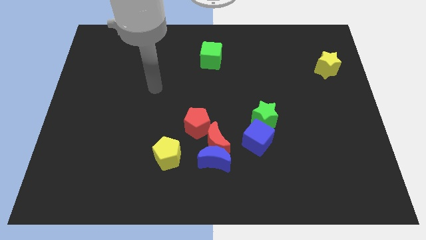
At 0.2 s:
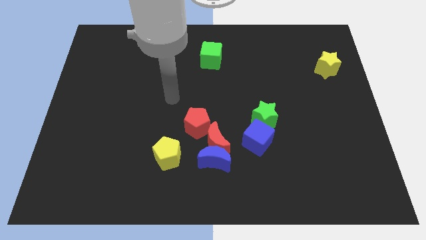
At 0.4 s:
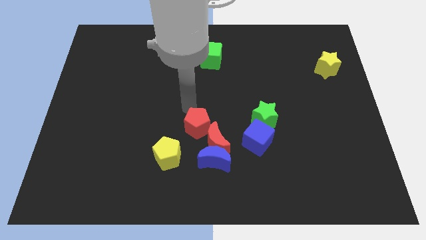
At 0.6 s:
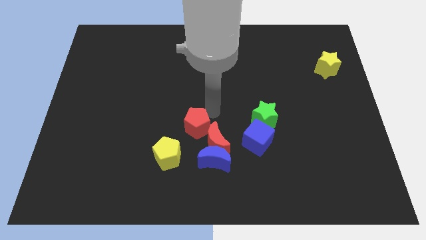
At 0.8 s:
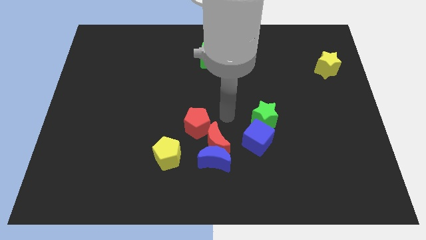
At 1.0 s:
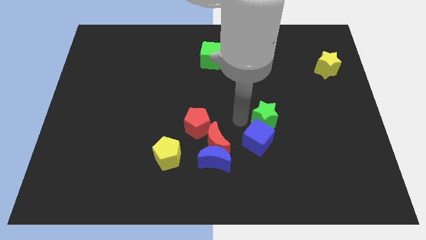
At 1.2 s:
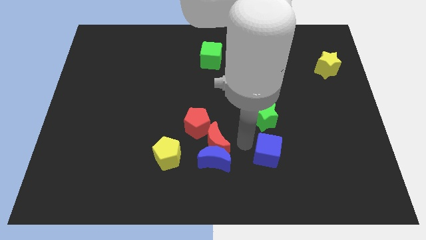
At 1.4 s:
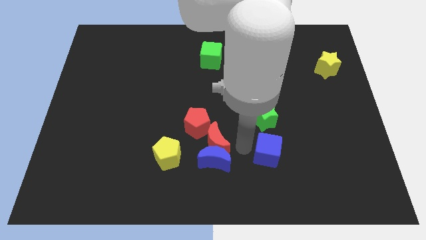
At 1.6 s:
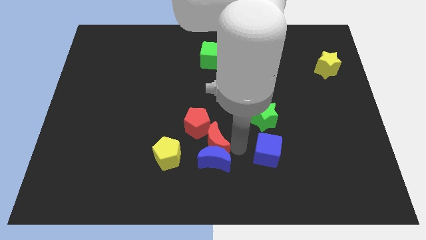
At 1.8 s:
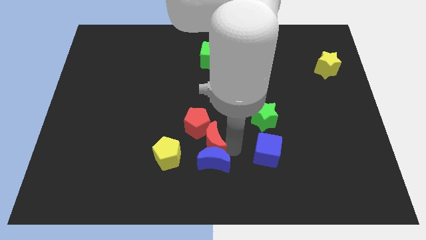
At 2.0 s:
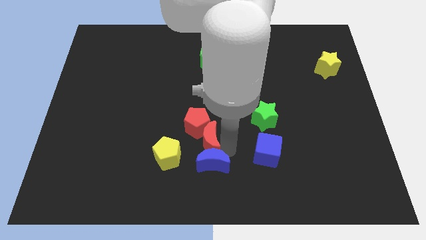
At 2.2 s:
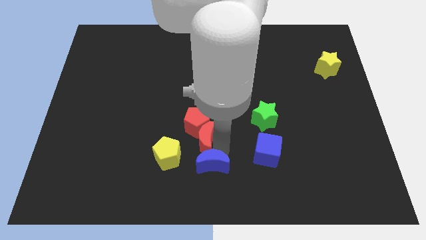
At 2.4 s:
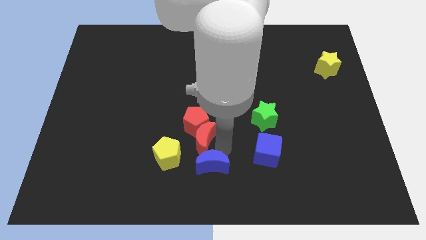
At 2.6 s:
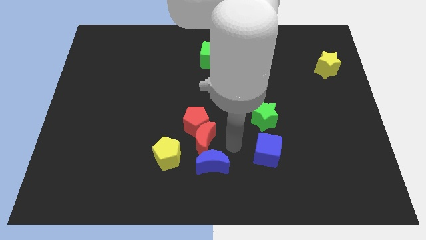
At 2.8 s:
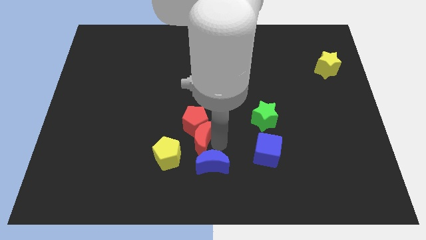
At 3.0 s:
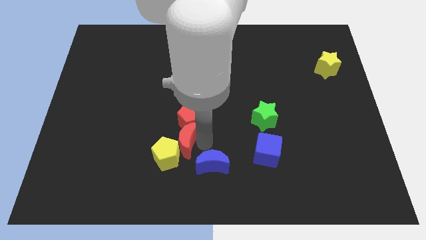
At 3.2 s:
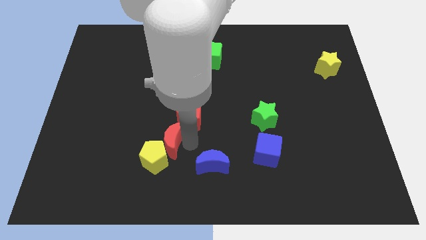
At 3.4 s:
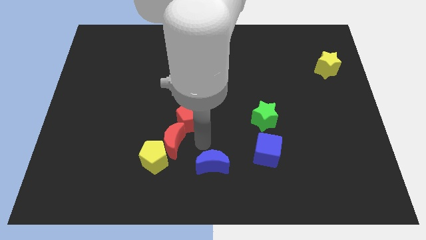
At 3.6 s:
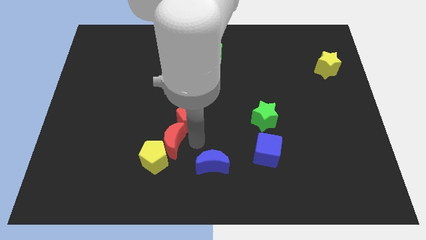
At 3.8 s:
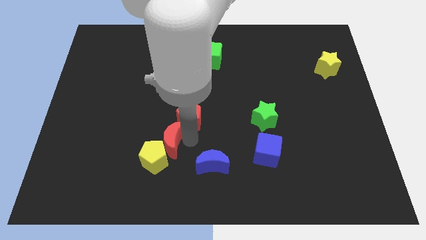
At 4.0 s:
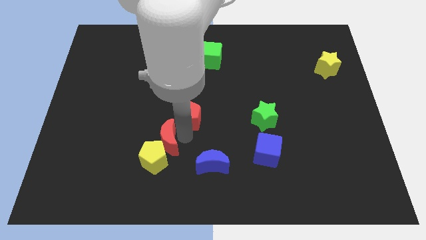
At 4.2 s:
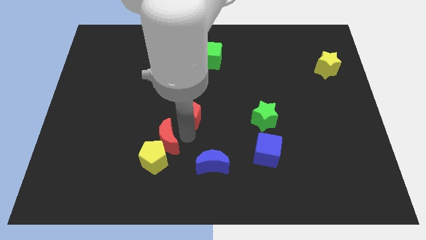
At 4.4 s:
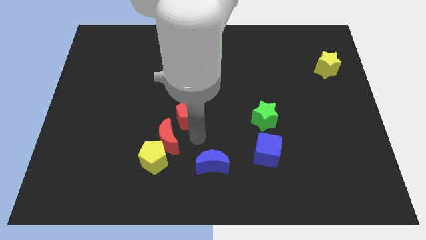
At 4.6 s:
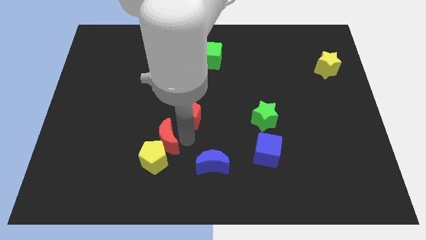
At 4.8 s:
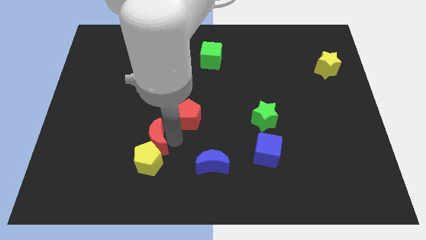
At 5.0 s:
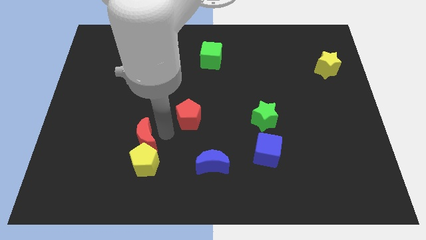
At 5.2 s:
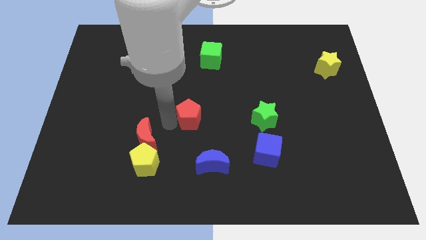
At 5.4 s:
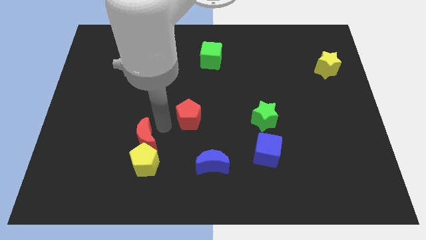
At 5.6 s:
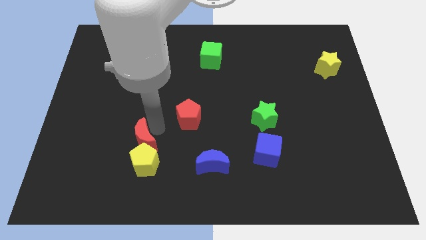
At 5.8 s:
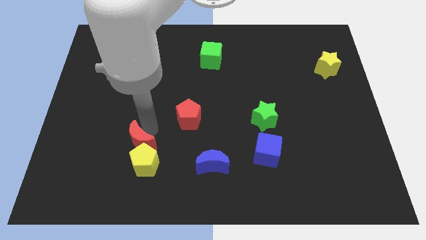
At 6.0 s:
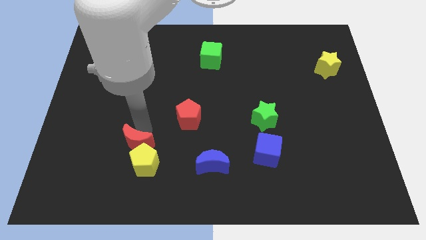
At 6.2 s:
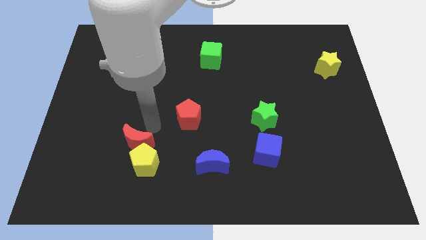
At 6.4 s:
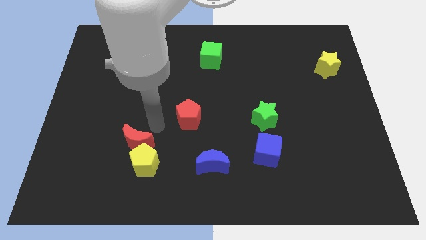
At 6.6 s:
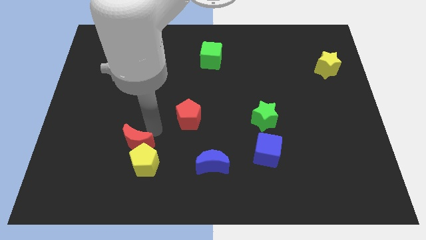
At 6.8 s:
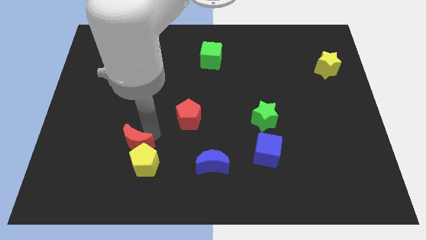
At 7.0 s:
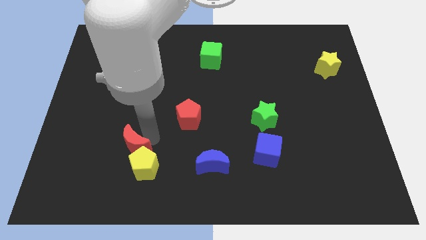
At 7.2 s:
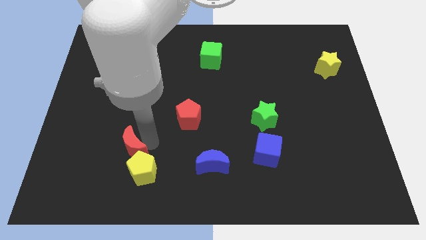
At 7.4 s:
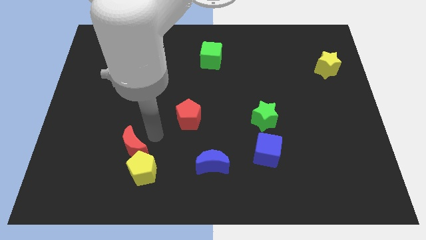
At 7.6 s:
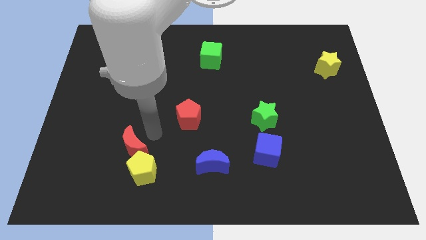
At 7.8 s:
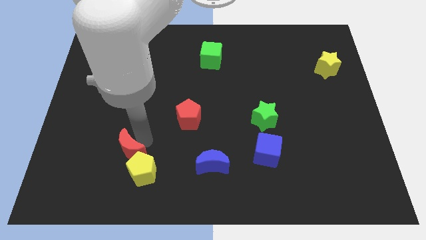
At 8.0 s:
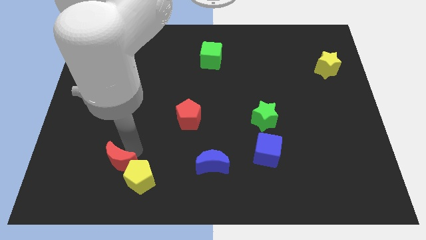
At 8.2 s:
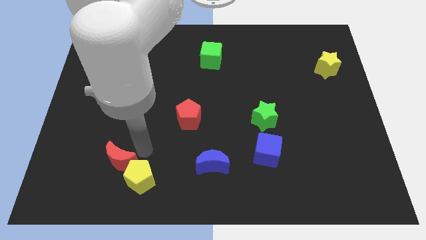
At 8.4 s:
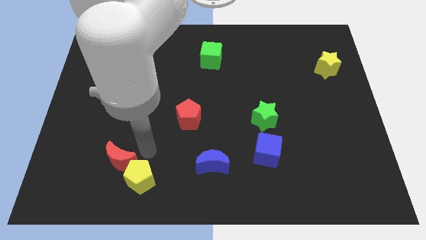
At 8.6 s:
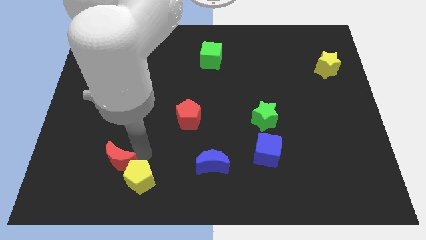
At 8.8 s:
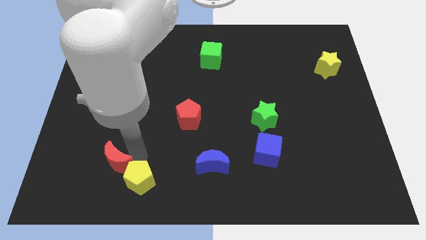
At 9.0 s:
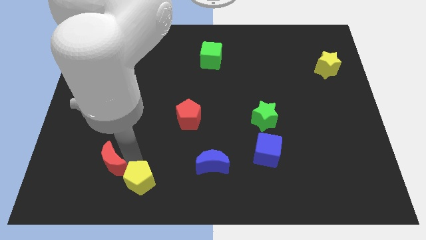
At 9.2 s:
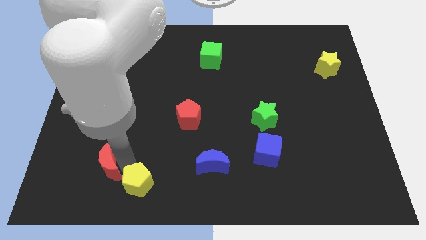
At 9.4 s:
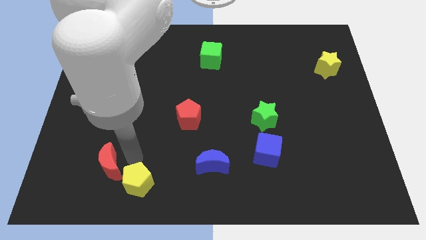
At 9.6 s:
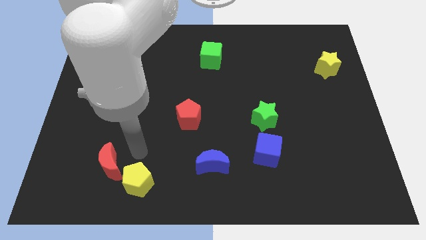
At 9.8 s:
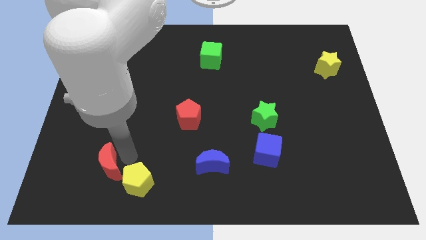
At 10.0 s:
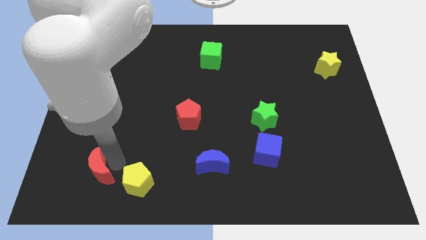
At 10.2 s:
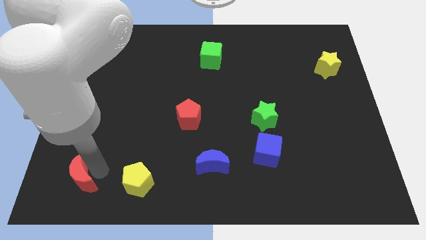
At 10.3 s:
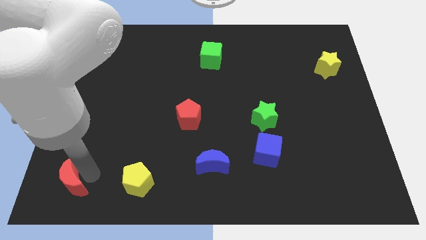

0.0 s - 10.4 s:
slide the red moon to the bottom left
